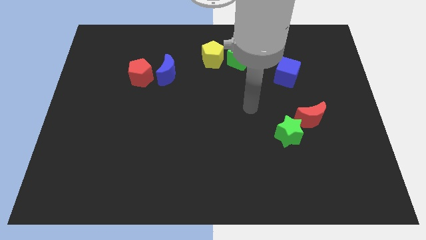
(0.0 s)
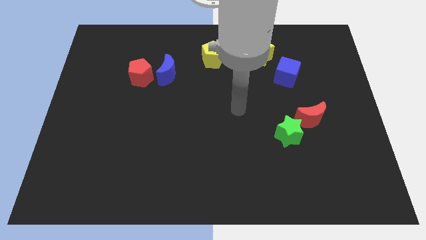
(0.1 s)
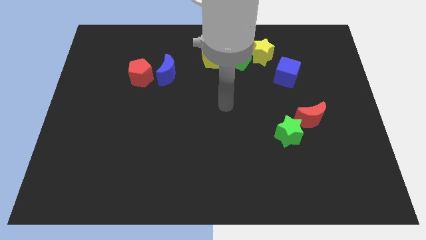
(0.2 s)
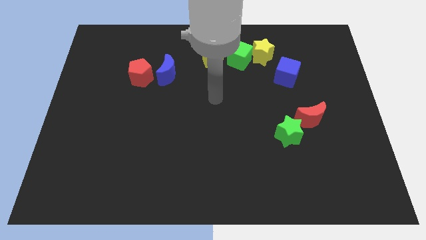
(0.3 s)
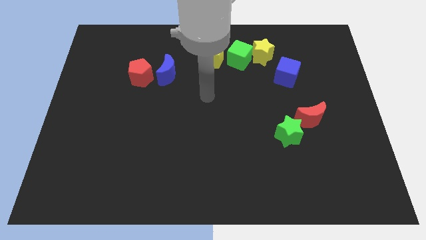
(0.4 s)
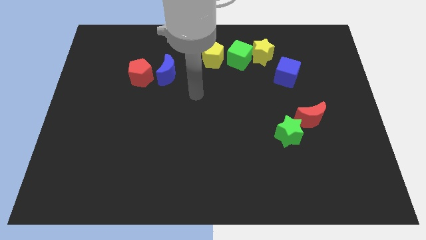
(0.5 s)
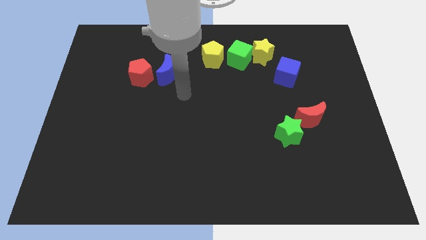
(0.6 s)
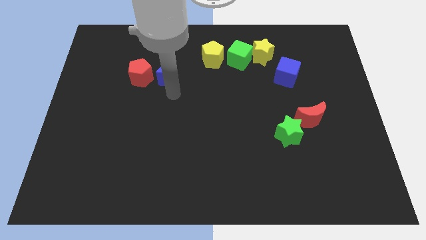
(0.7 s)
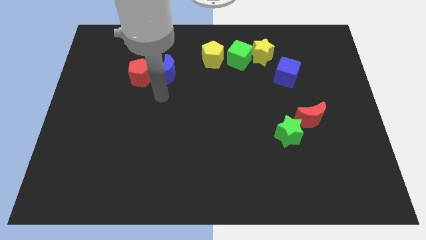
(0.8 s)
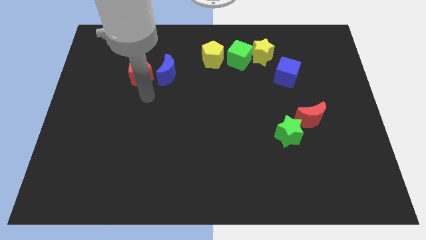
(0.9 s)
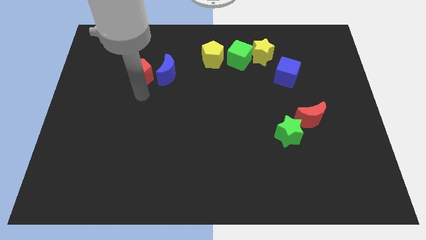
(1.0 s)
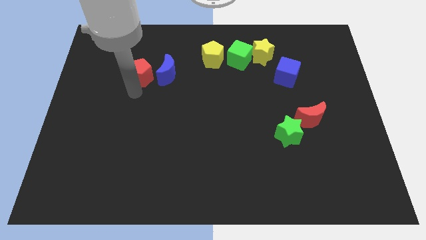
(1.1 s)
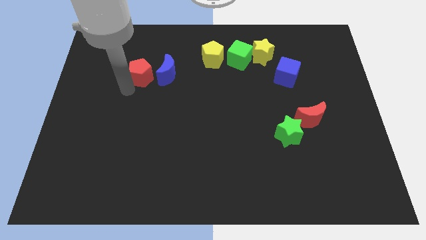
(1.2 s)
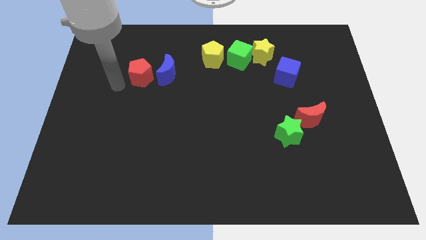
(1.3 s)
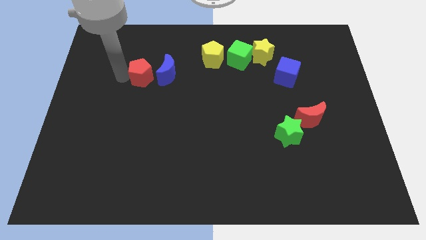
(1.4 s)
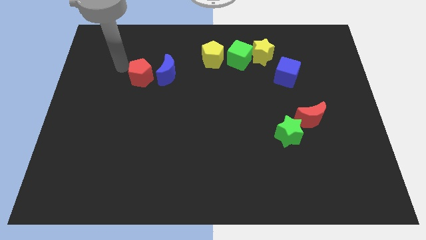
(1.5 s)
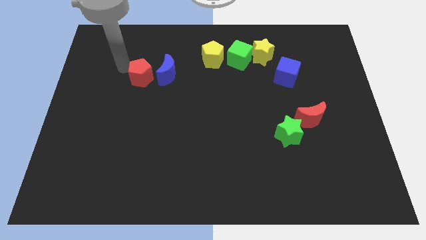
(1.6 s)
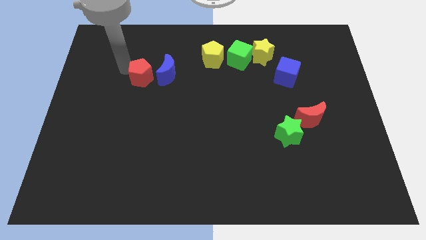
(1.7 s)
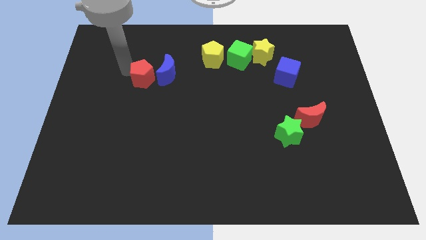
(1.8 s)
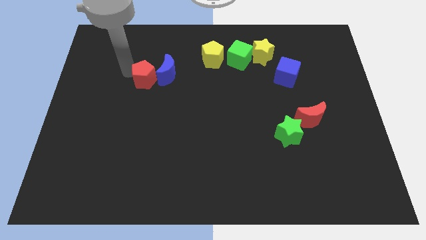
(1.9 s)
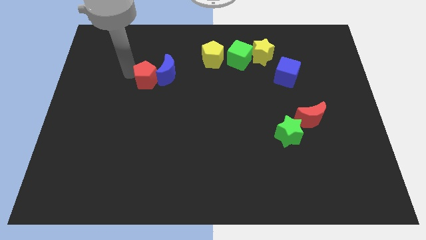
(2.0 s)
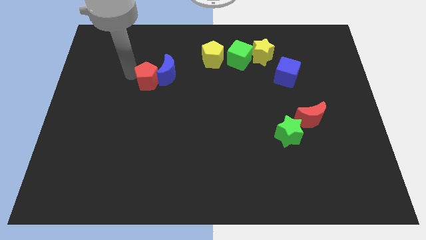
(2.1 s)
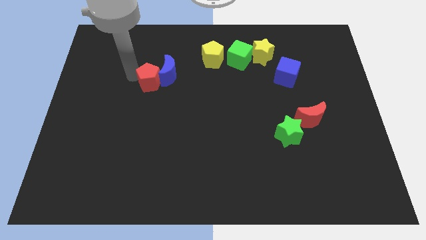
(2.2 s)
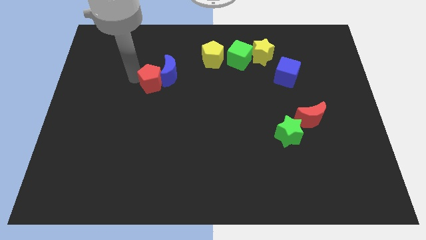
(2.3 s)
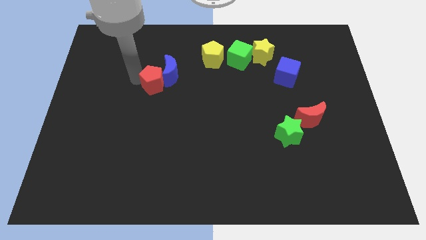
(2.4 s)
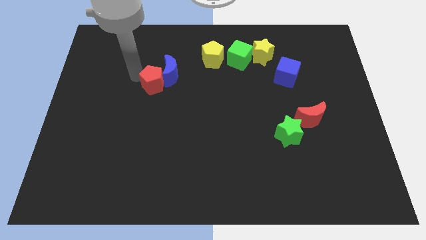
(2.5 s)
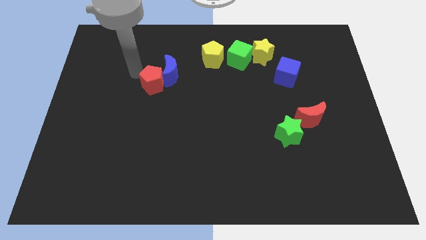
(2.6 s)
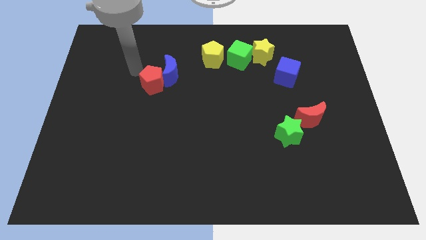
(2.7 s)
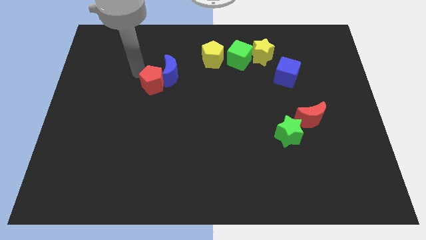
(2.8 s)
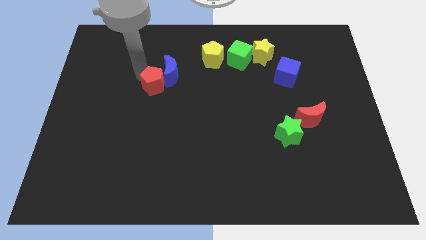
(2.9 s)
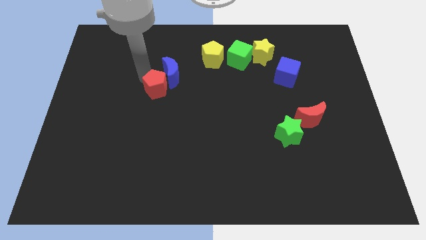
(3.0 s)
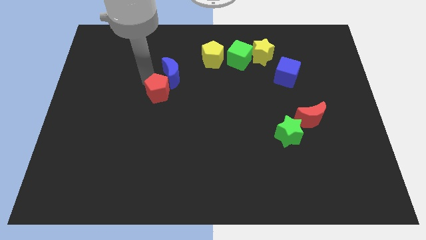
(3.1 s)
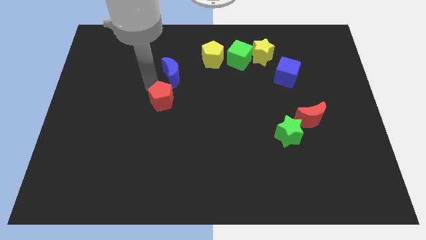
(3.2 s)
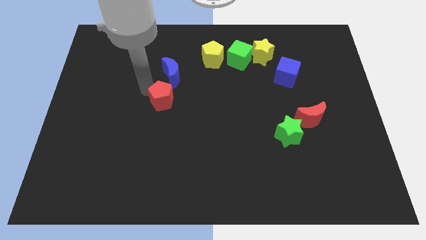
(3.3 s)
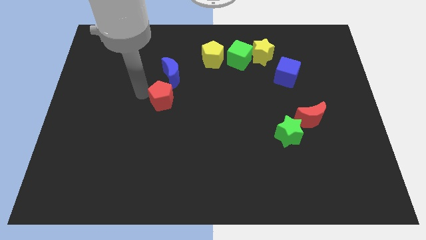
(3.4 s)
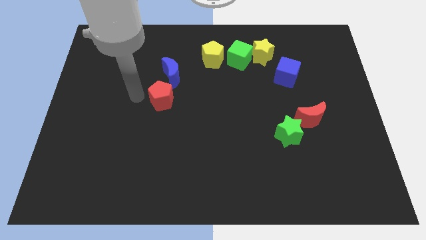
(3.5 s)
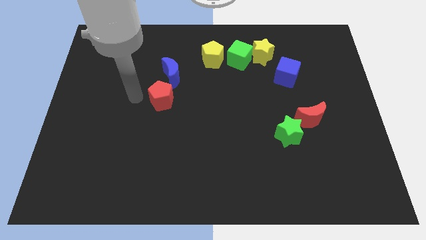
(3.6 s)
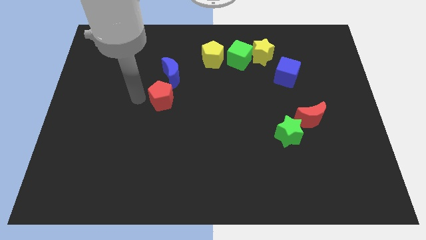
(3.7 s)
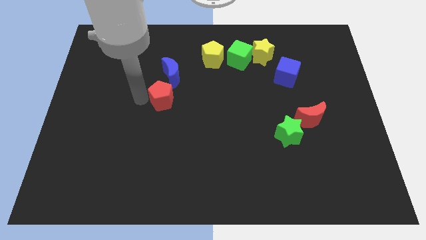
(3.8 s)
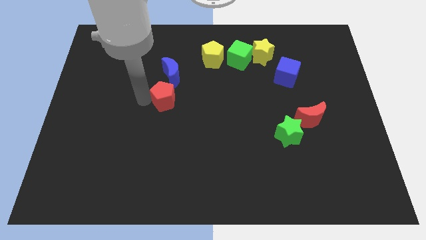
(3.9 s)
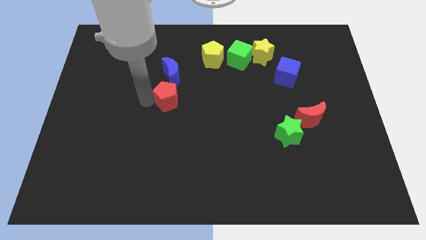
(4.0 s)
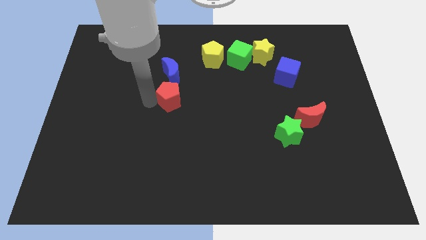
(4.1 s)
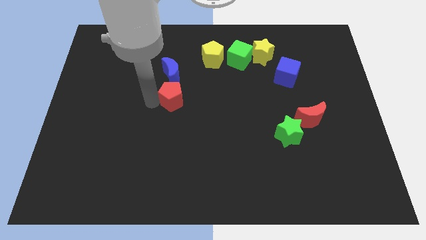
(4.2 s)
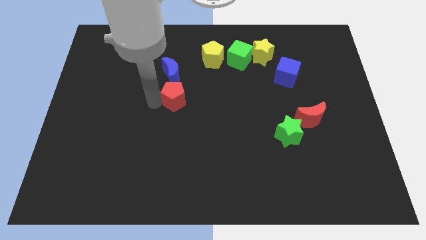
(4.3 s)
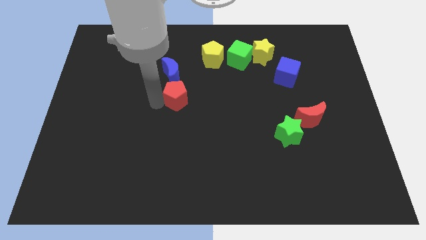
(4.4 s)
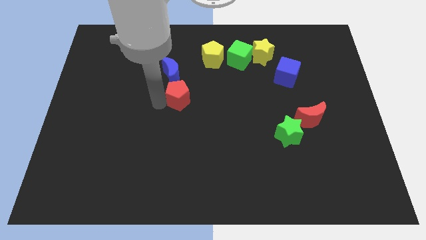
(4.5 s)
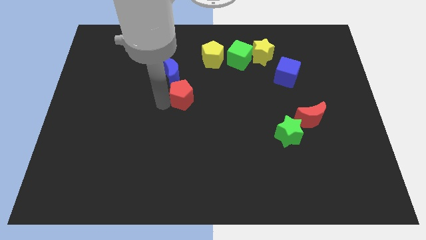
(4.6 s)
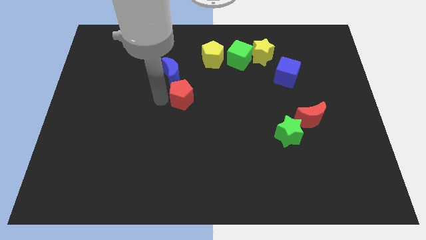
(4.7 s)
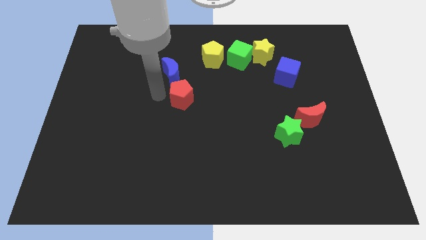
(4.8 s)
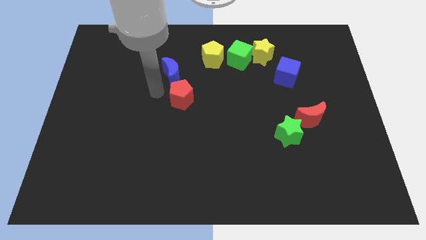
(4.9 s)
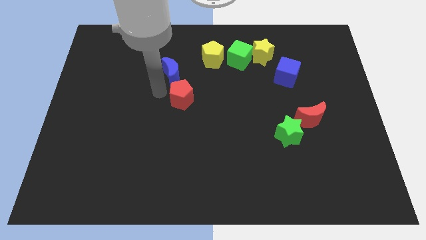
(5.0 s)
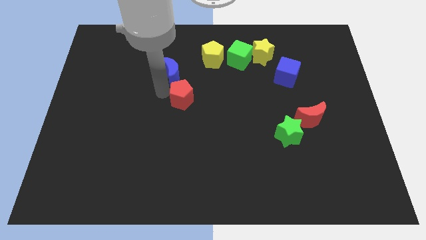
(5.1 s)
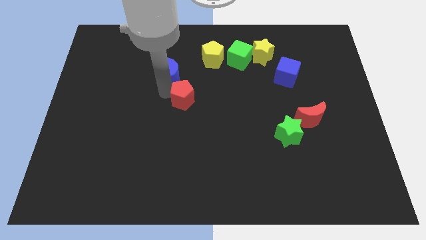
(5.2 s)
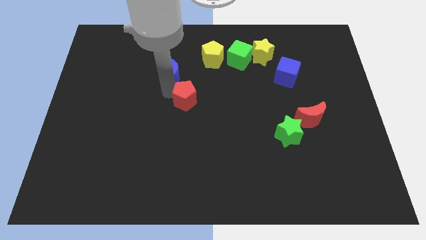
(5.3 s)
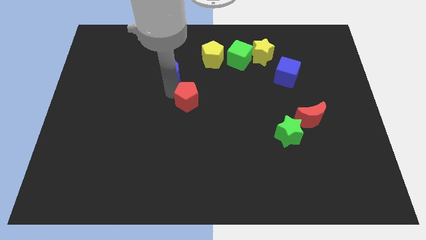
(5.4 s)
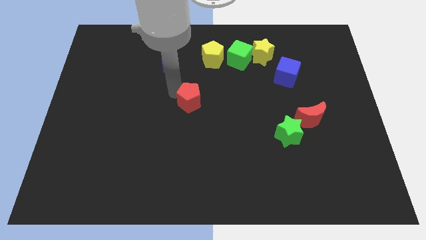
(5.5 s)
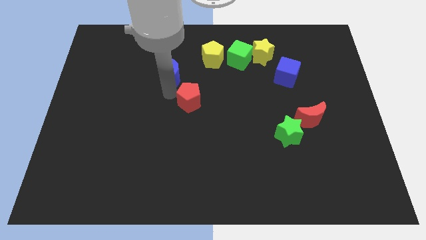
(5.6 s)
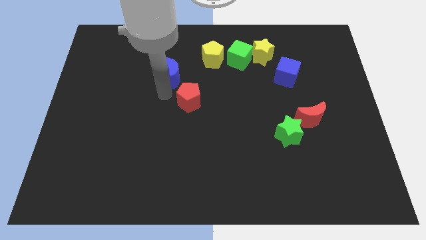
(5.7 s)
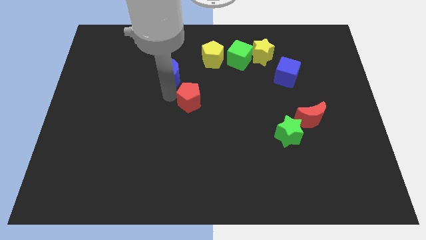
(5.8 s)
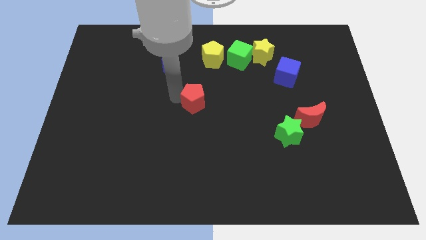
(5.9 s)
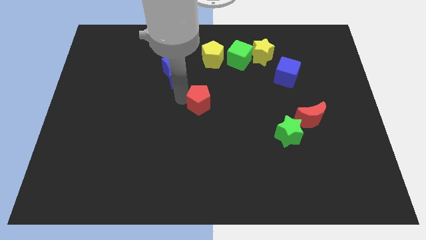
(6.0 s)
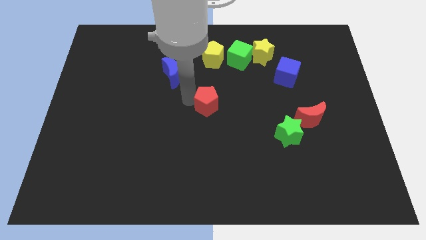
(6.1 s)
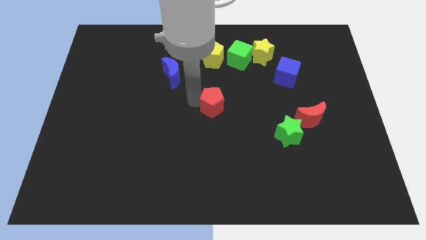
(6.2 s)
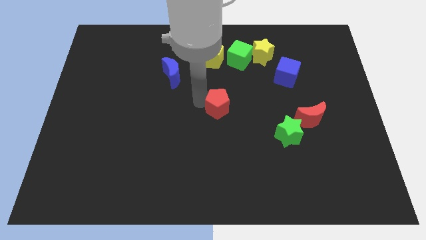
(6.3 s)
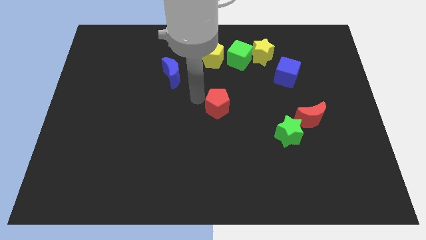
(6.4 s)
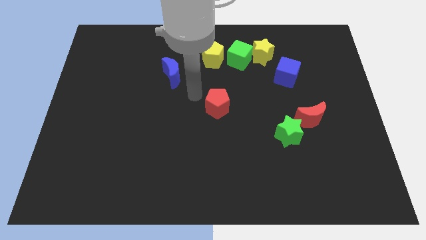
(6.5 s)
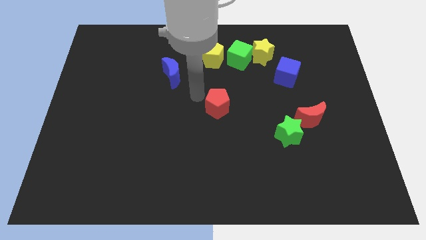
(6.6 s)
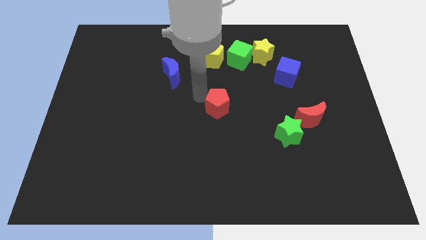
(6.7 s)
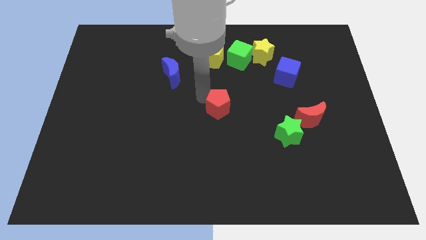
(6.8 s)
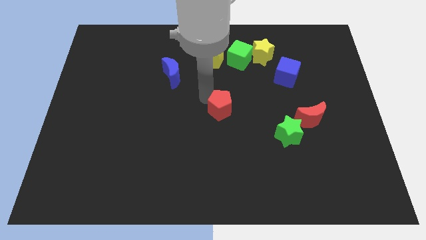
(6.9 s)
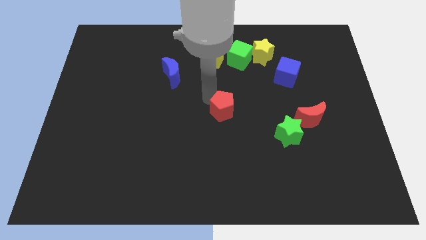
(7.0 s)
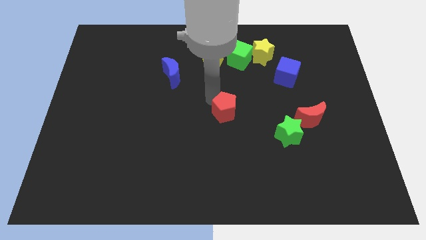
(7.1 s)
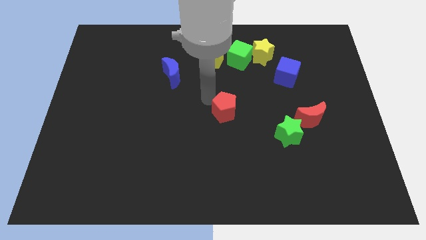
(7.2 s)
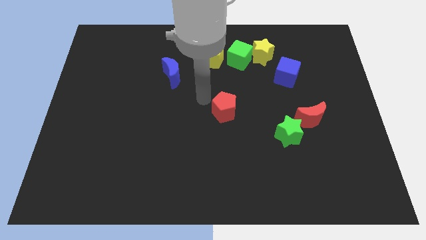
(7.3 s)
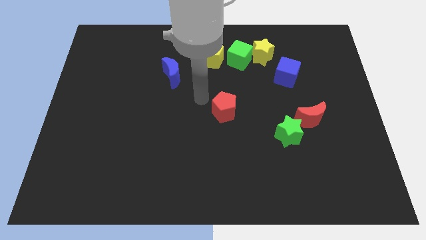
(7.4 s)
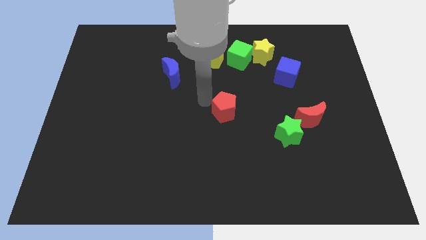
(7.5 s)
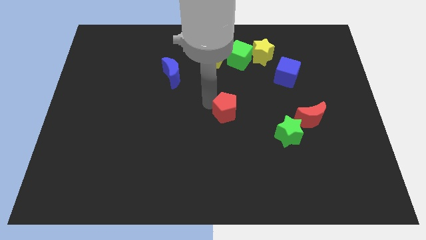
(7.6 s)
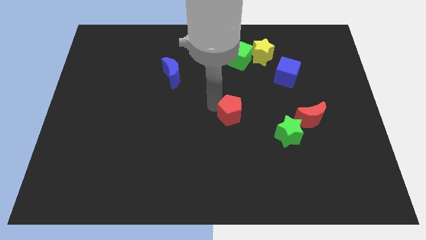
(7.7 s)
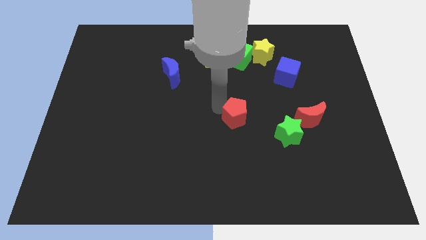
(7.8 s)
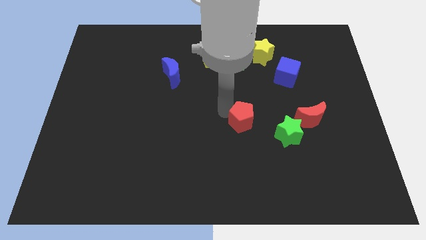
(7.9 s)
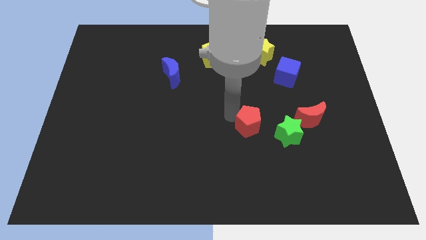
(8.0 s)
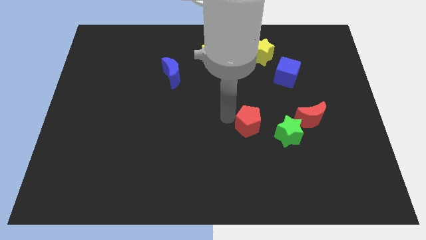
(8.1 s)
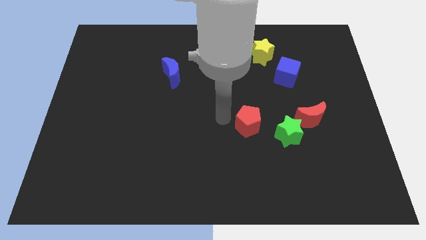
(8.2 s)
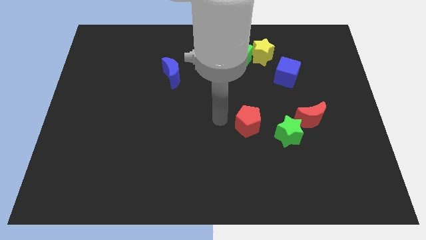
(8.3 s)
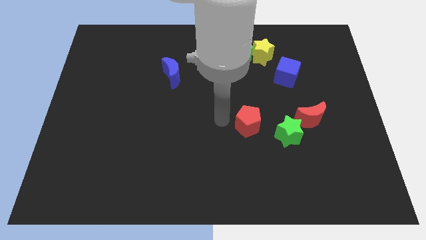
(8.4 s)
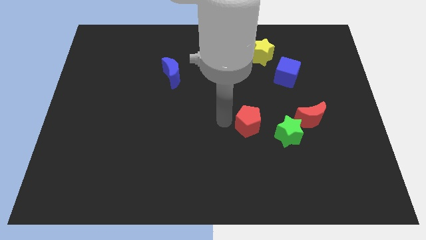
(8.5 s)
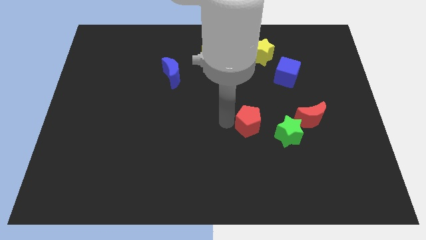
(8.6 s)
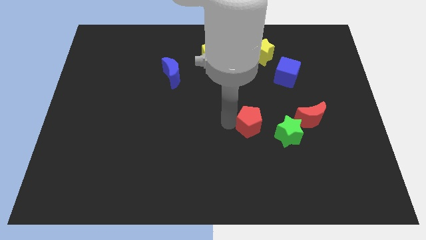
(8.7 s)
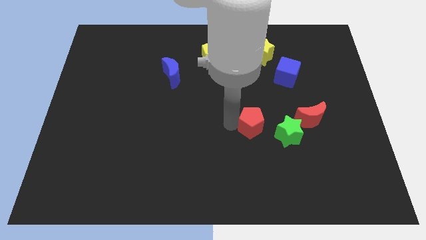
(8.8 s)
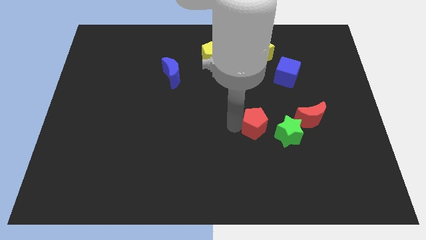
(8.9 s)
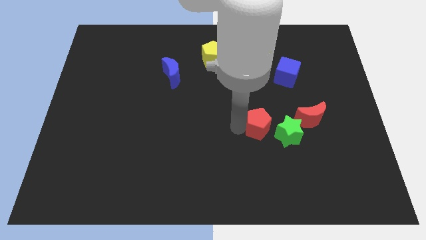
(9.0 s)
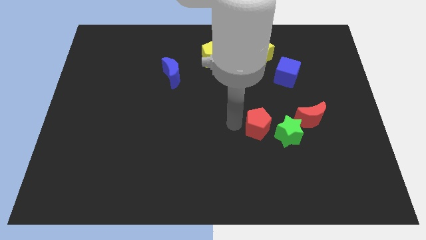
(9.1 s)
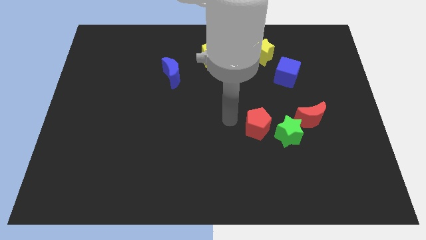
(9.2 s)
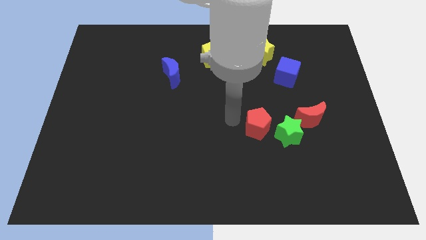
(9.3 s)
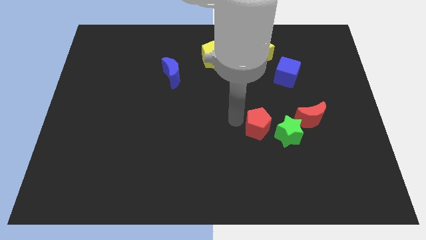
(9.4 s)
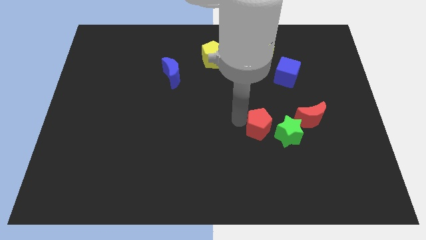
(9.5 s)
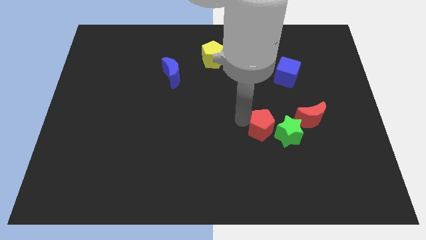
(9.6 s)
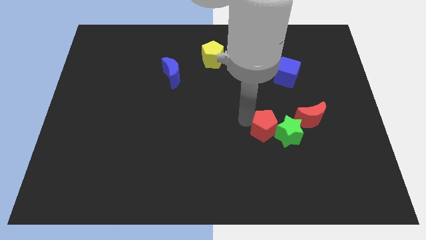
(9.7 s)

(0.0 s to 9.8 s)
push the red pentagon to the green star
